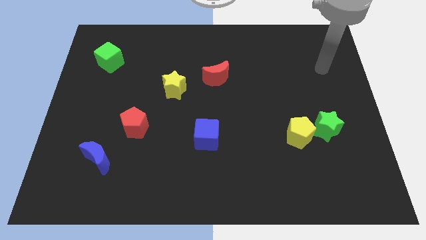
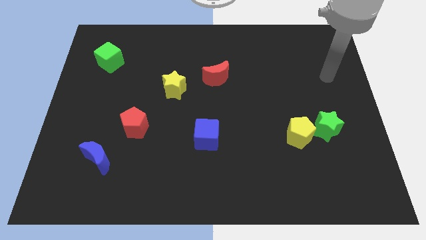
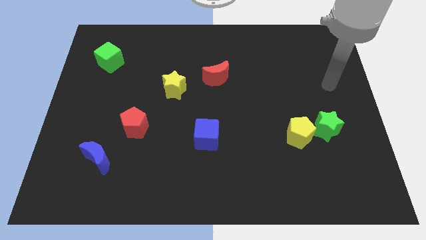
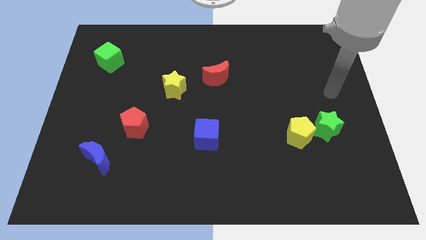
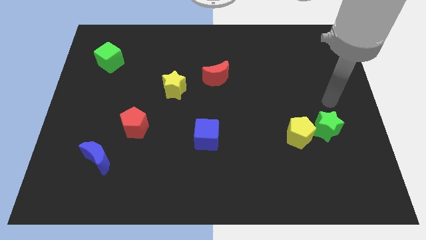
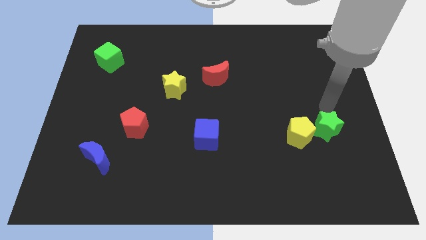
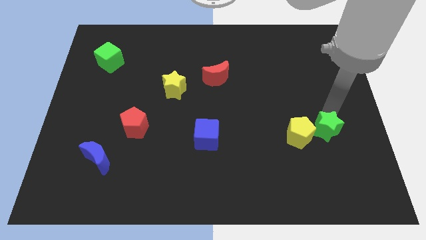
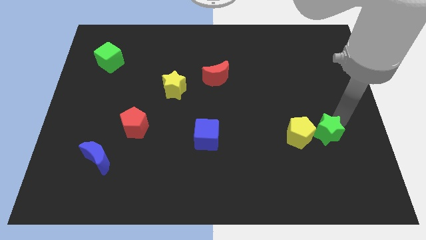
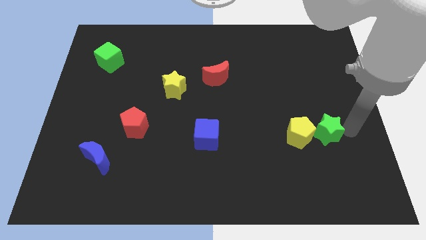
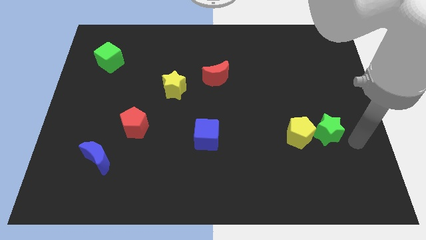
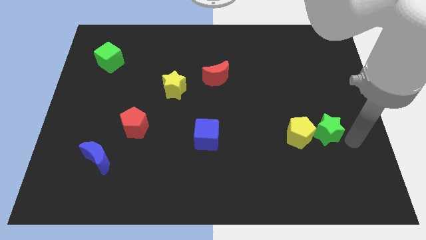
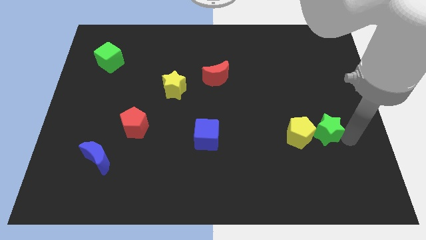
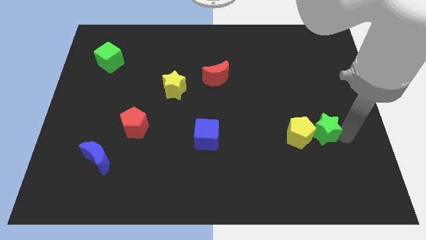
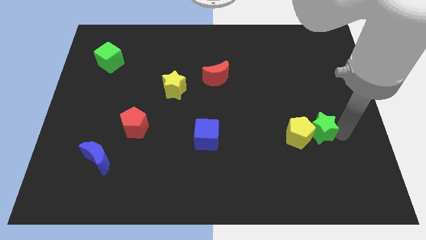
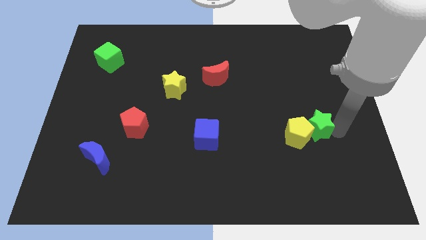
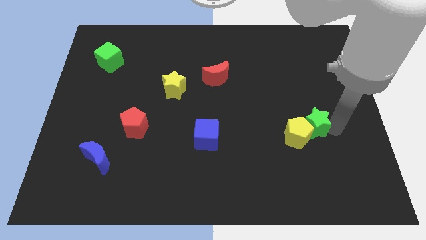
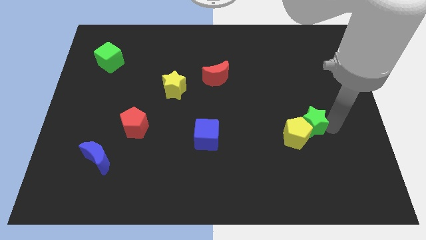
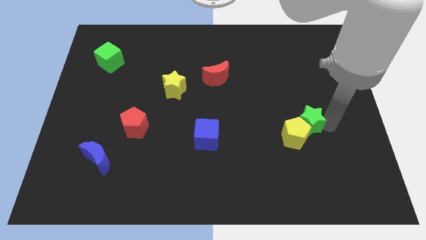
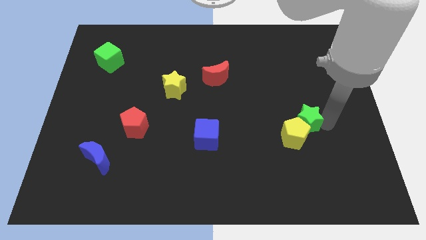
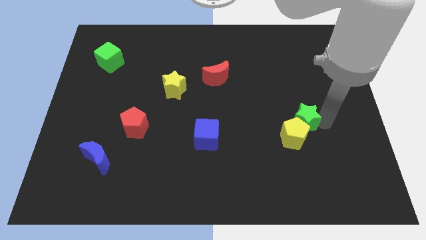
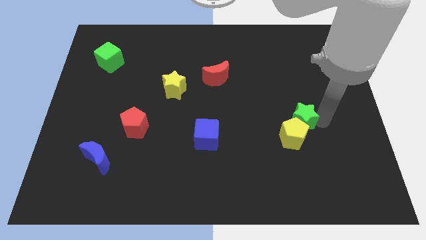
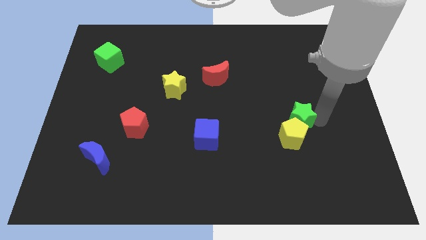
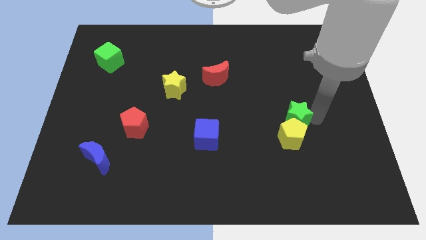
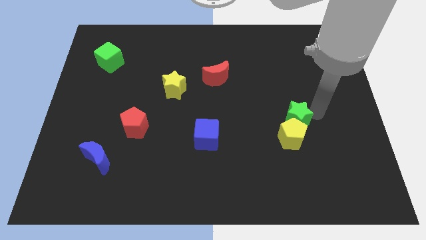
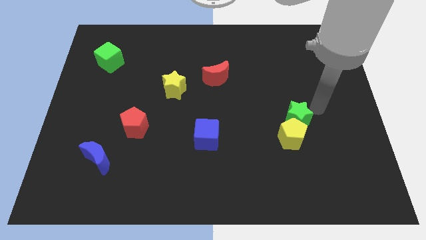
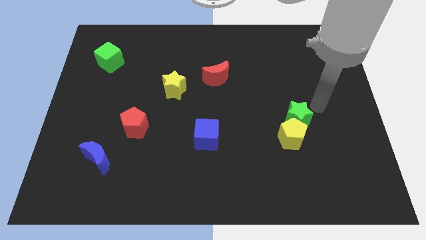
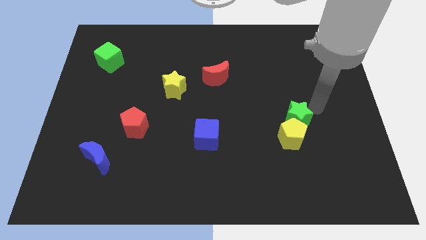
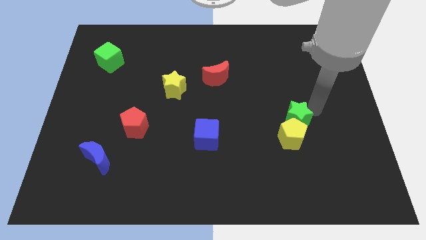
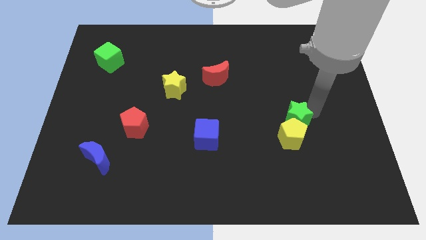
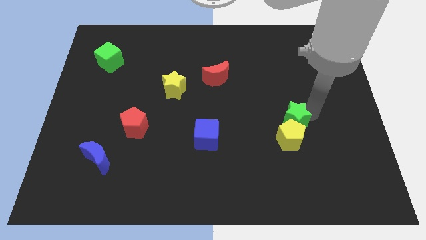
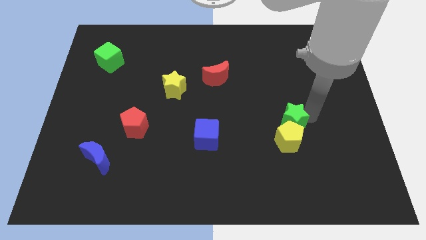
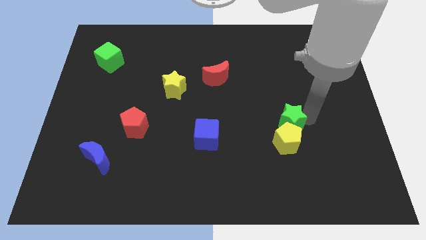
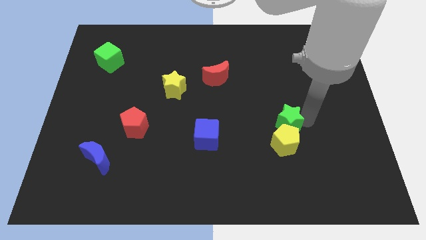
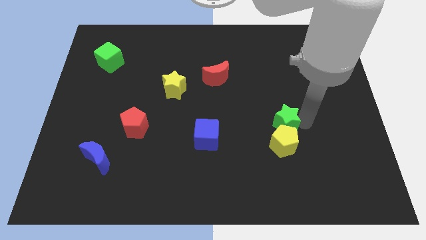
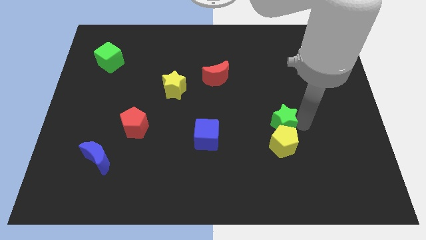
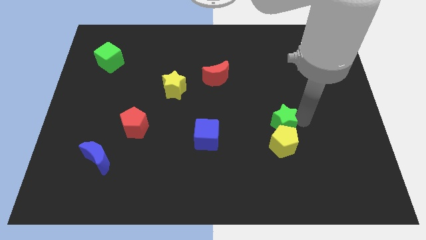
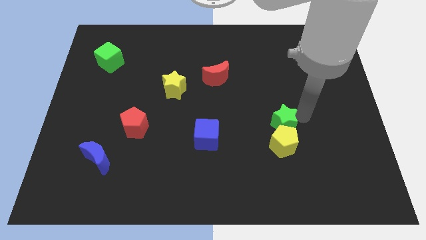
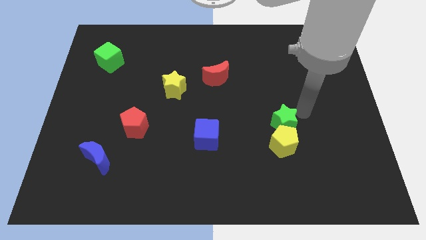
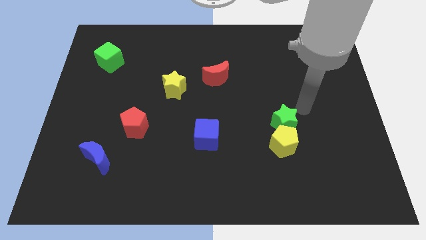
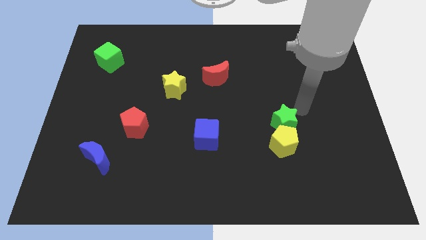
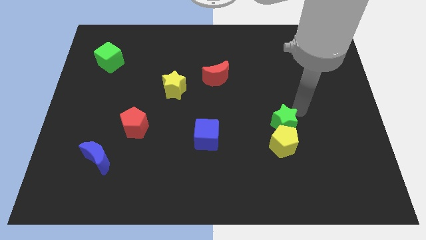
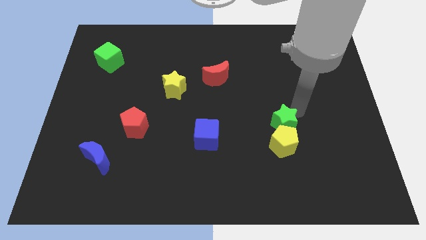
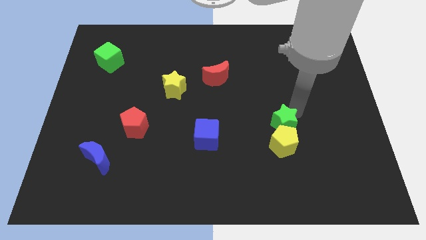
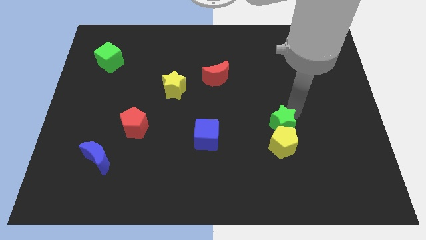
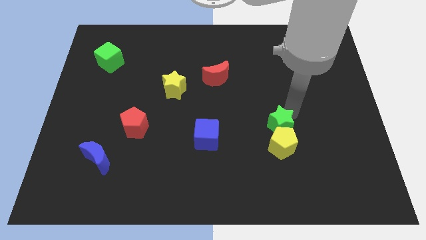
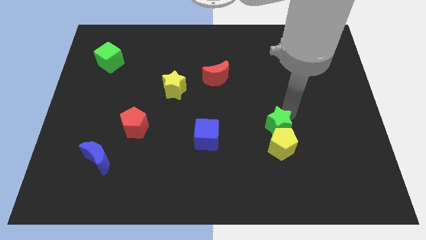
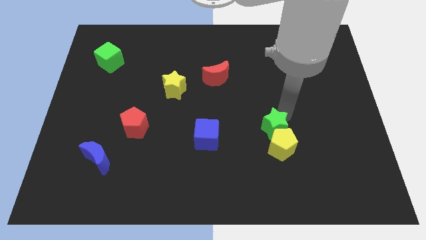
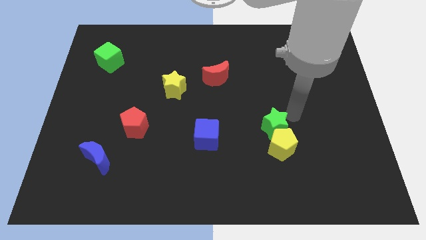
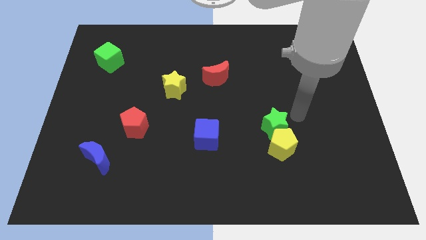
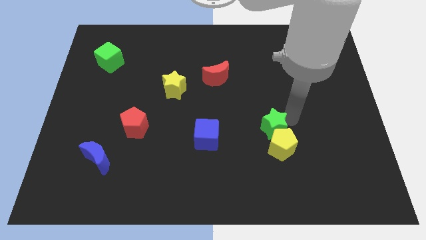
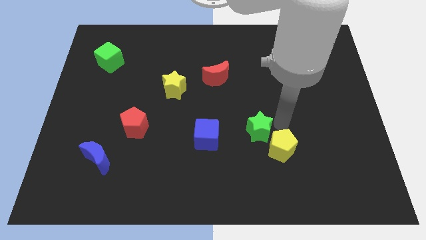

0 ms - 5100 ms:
push the green star to the left of the yellow pentagon

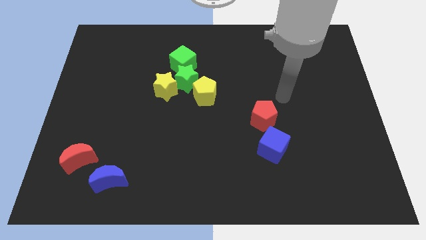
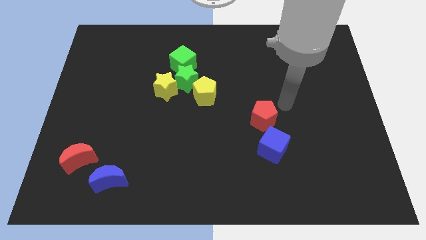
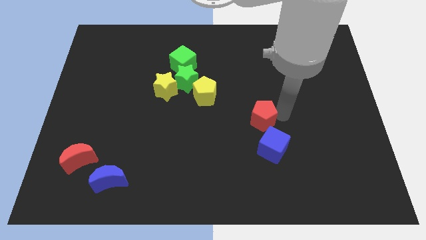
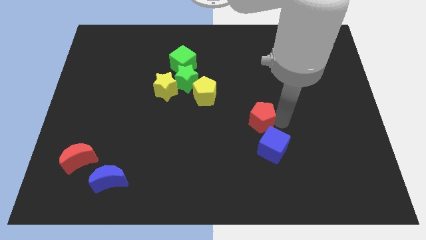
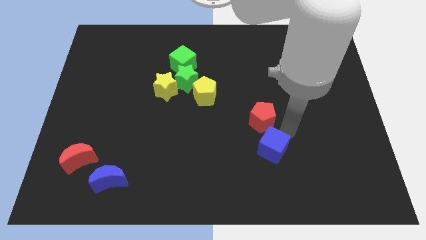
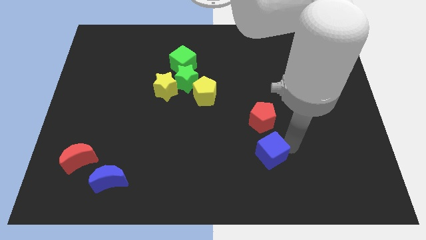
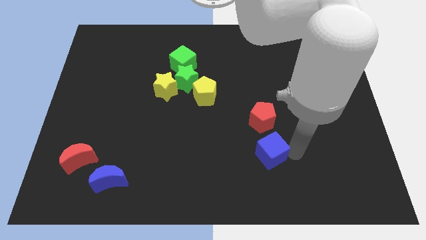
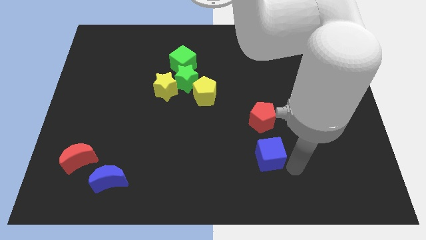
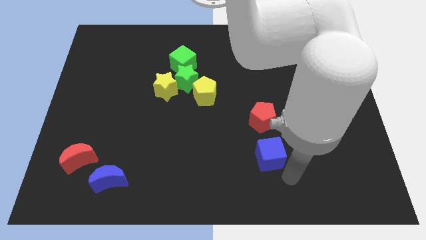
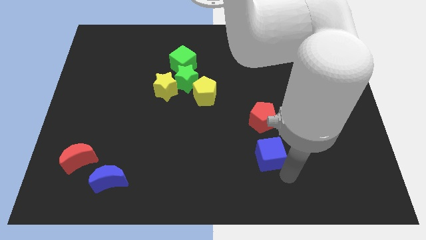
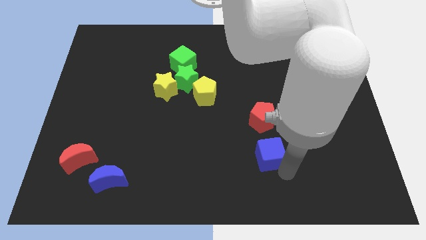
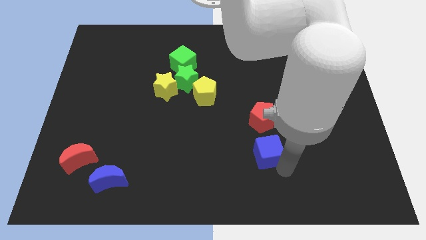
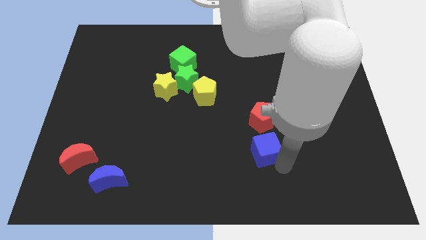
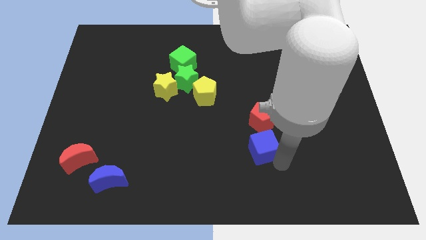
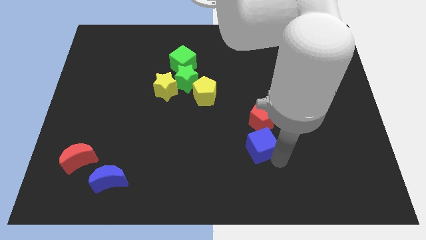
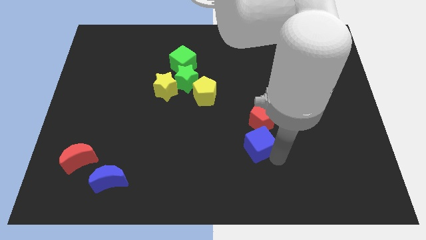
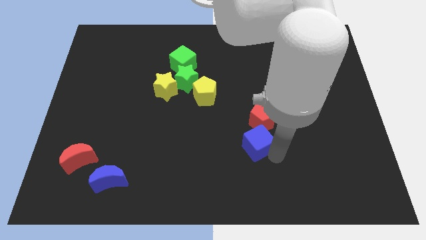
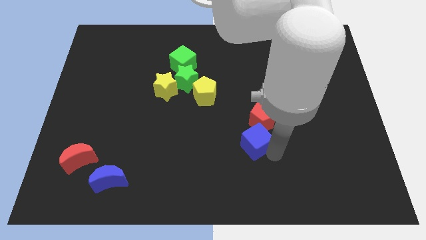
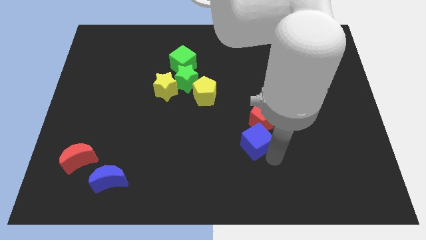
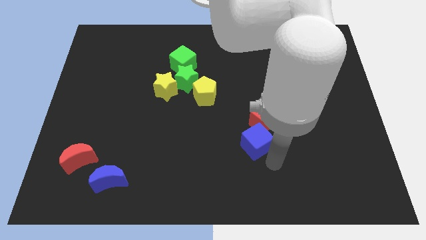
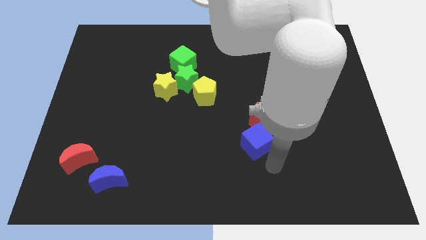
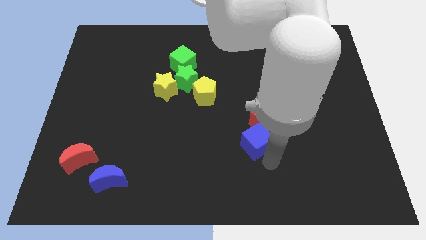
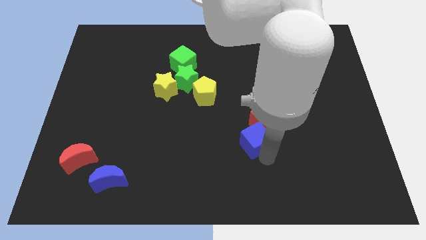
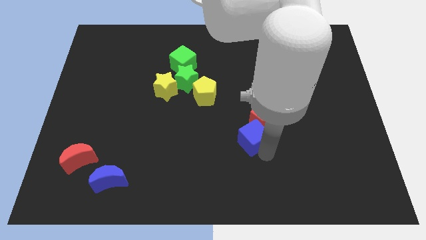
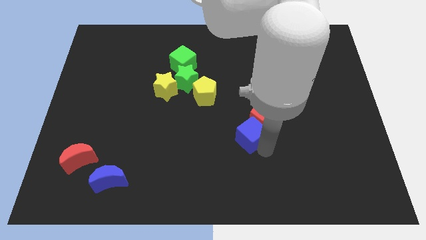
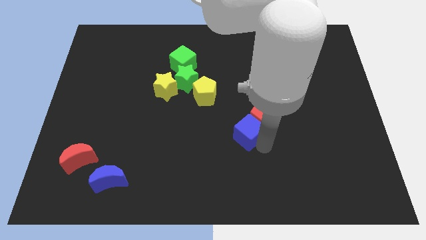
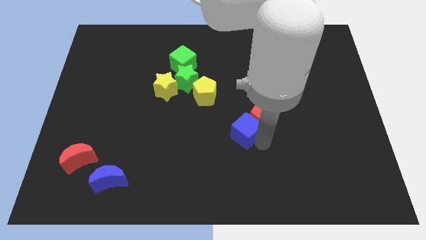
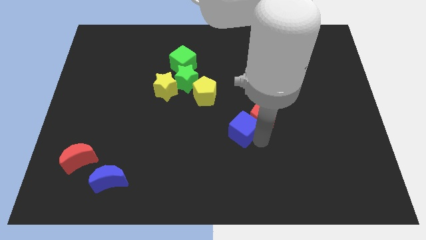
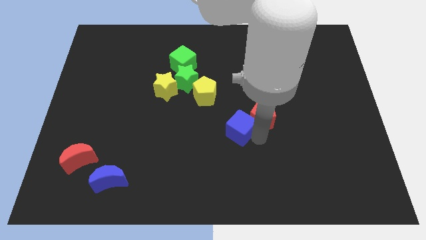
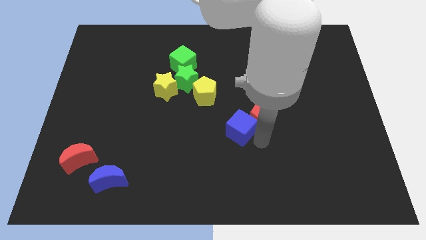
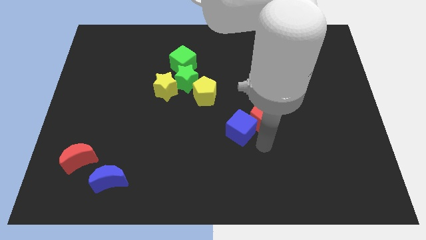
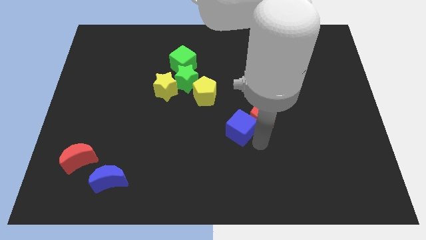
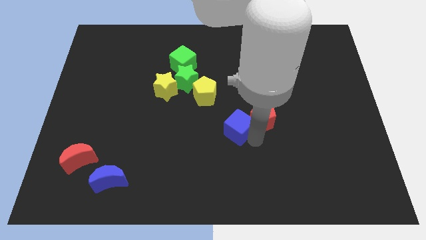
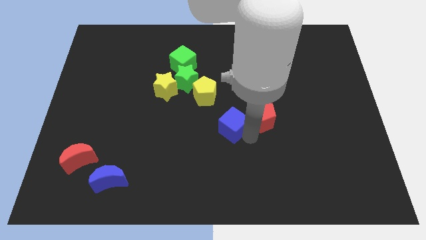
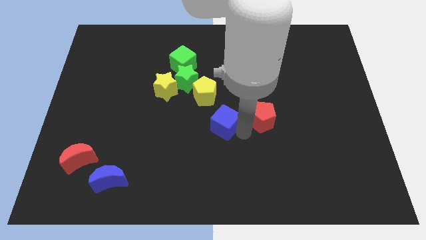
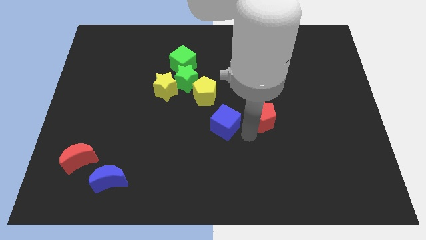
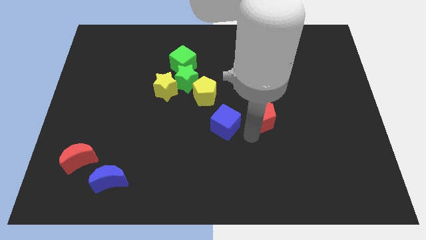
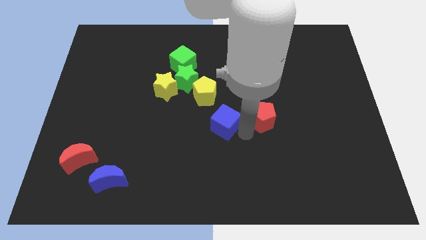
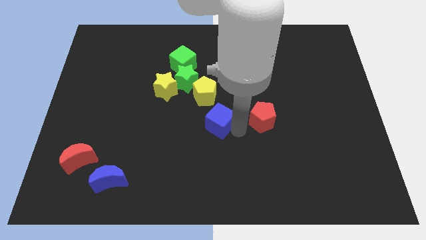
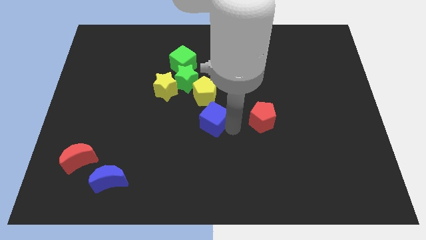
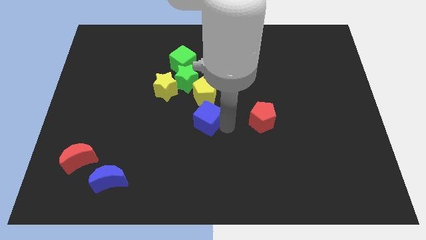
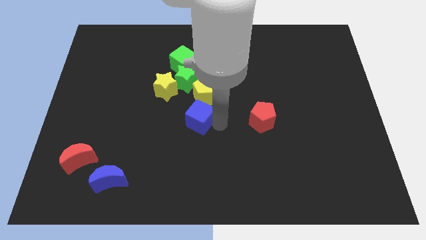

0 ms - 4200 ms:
put the blue cube to the bottom left of the yellow pentagon
